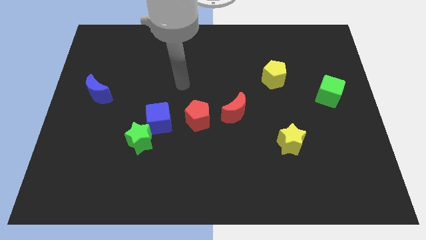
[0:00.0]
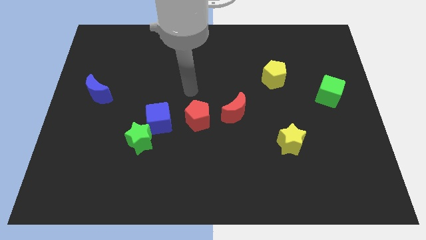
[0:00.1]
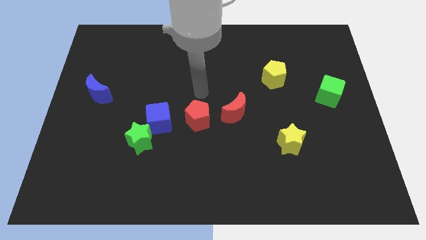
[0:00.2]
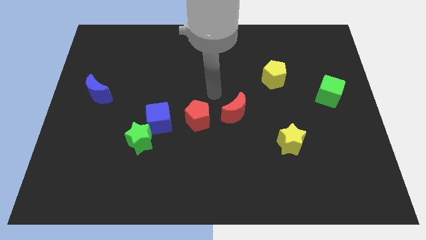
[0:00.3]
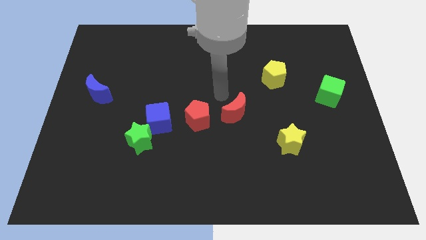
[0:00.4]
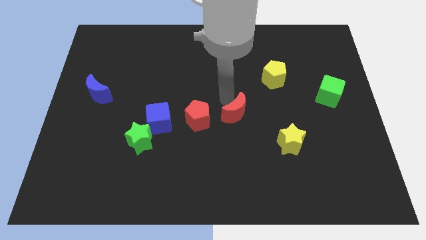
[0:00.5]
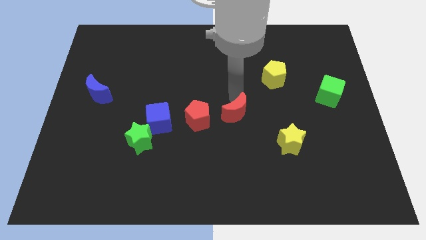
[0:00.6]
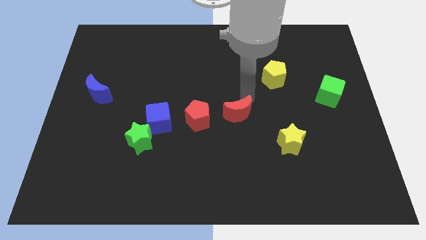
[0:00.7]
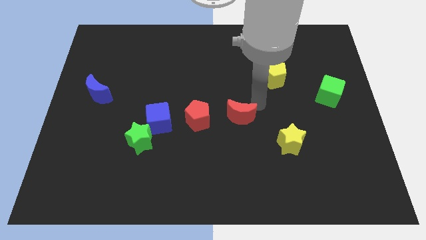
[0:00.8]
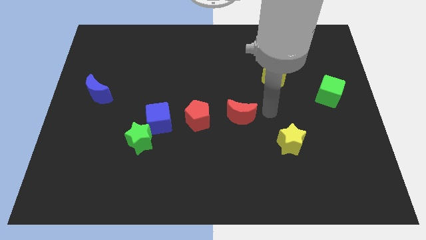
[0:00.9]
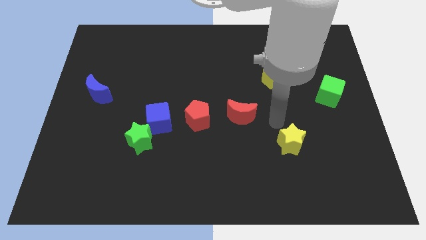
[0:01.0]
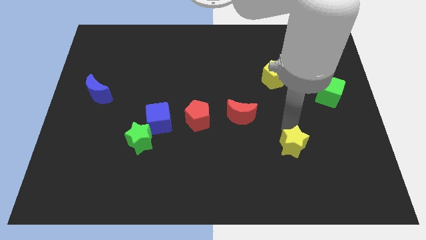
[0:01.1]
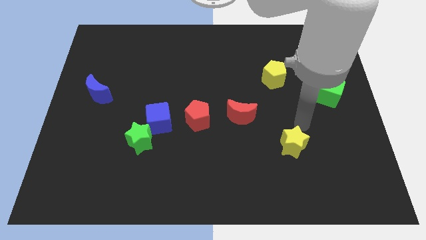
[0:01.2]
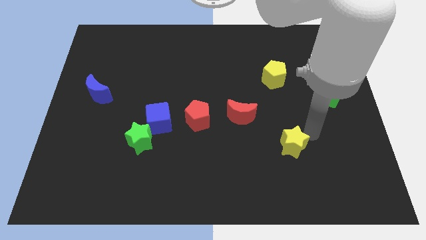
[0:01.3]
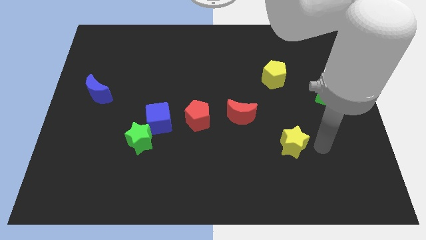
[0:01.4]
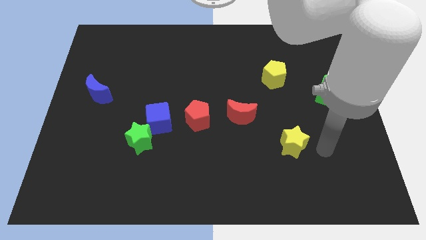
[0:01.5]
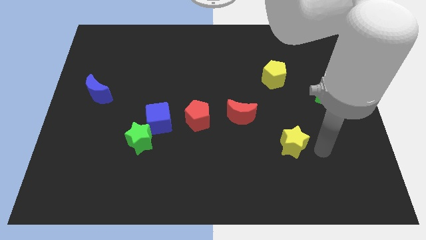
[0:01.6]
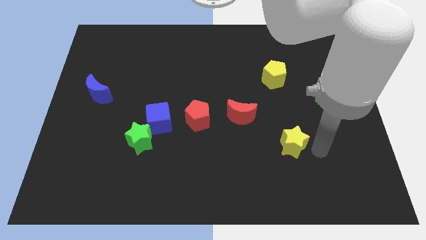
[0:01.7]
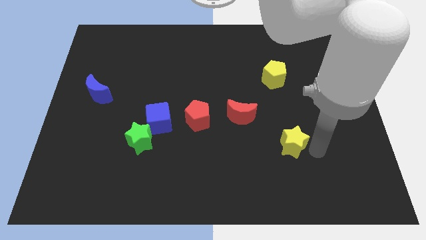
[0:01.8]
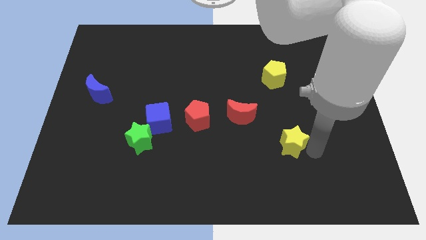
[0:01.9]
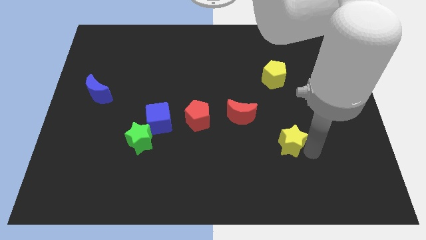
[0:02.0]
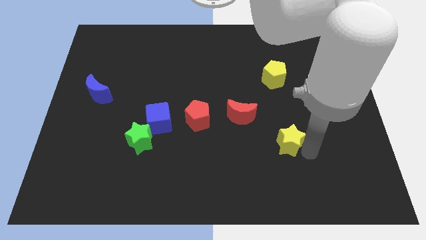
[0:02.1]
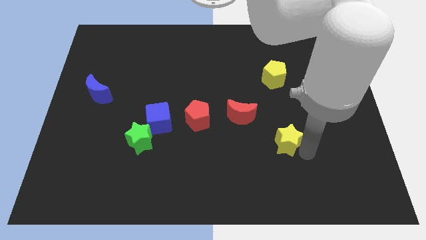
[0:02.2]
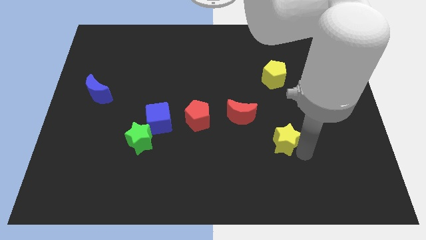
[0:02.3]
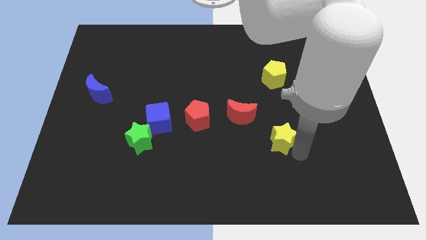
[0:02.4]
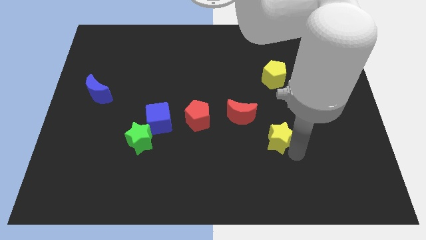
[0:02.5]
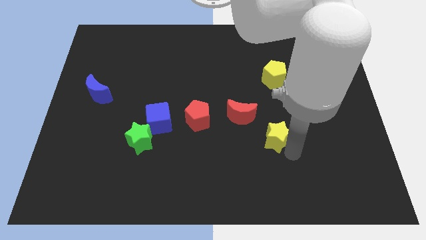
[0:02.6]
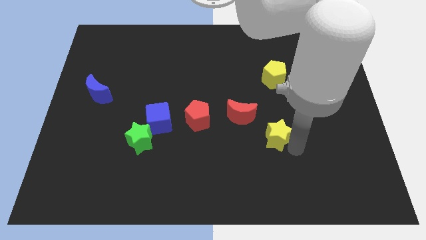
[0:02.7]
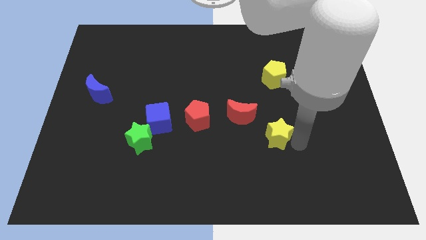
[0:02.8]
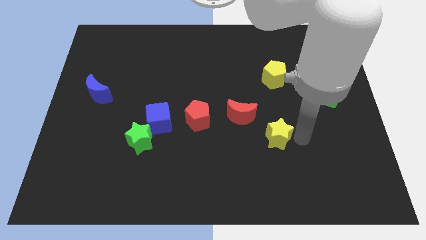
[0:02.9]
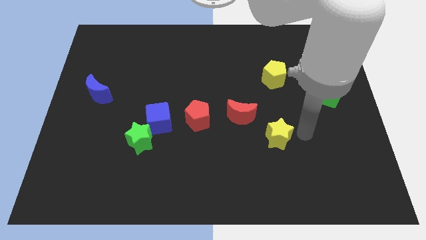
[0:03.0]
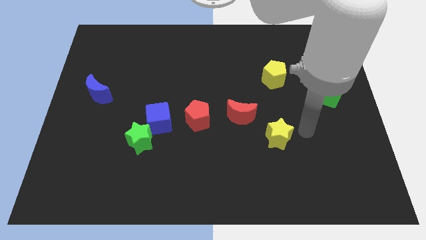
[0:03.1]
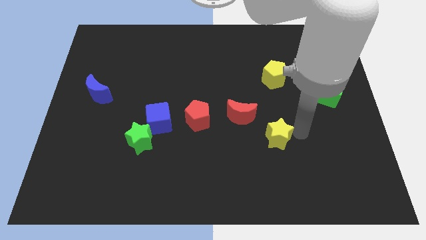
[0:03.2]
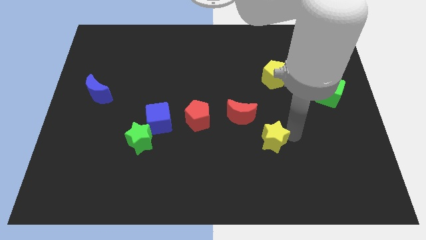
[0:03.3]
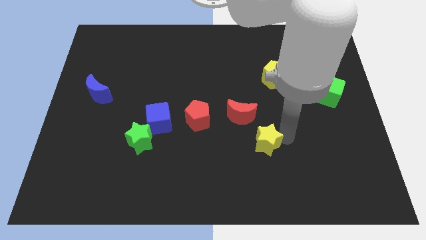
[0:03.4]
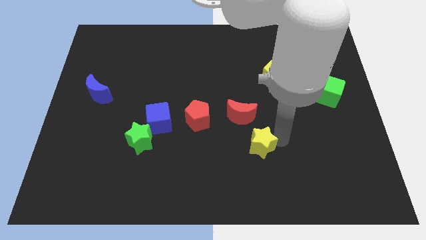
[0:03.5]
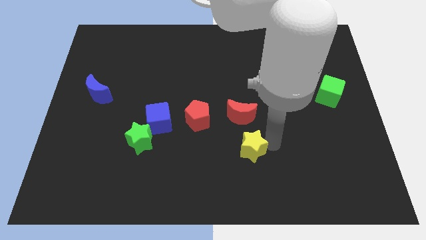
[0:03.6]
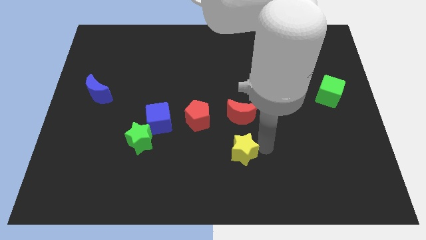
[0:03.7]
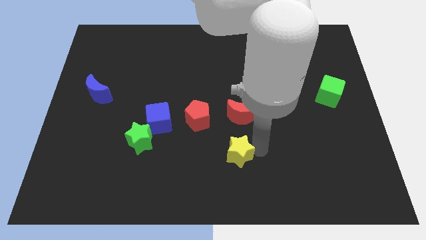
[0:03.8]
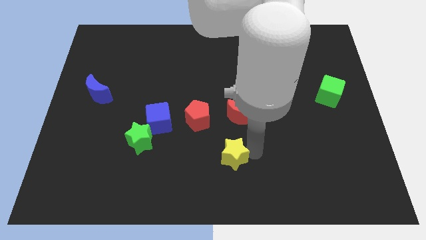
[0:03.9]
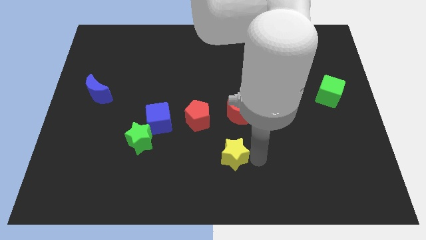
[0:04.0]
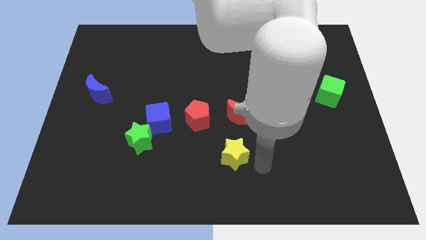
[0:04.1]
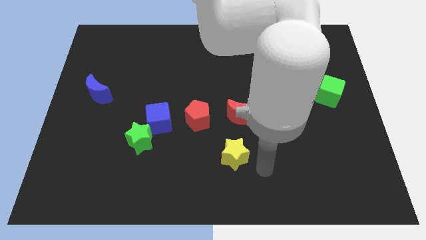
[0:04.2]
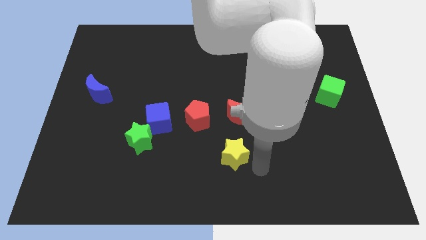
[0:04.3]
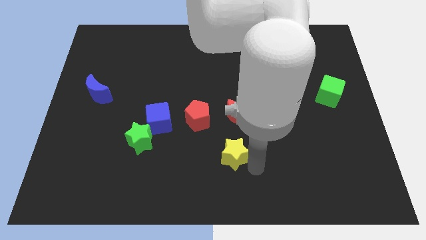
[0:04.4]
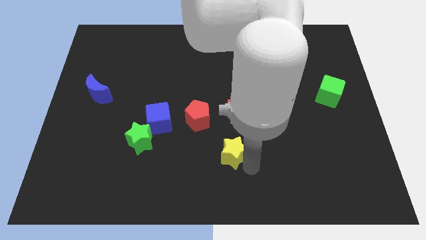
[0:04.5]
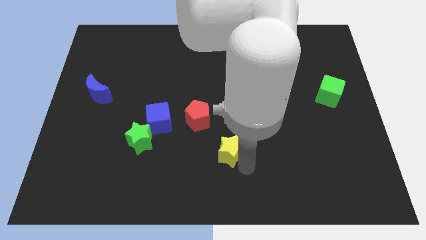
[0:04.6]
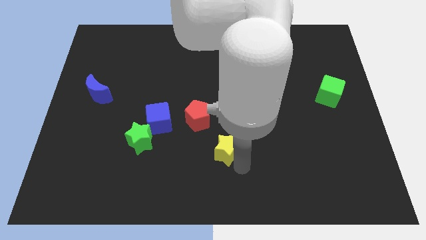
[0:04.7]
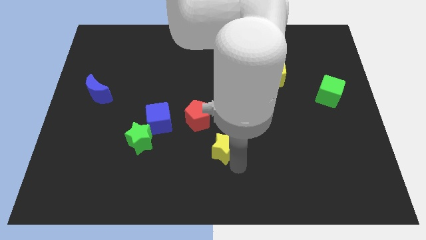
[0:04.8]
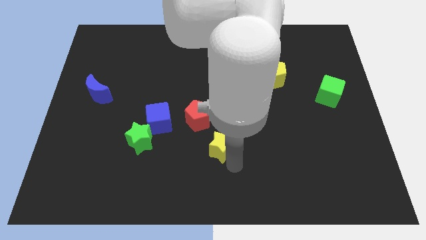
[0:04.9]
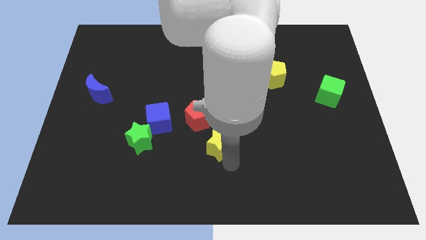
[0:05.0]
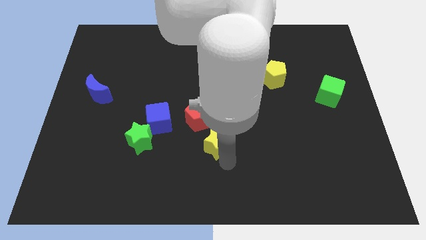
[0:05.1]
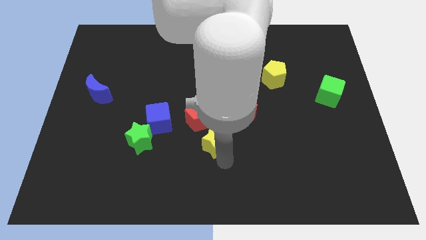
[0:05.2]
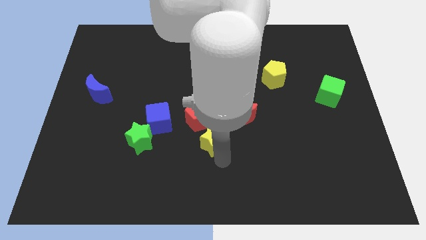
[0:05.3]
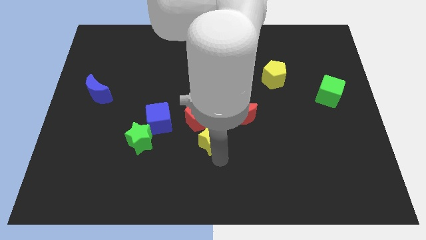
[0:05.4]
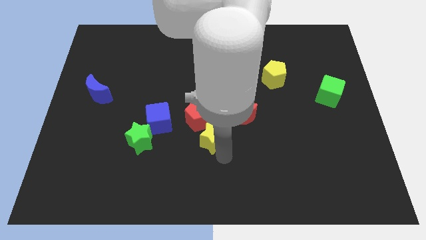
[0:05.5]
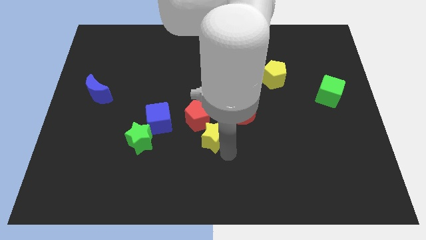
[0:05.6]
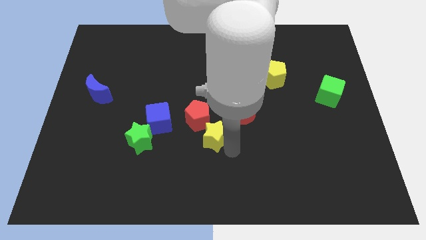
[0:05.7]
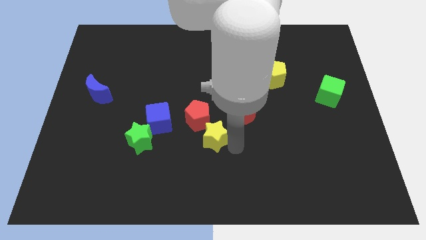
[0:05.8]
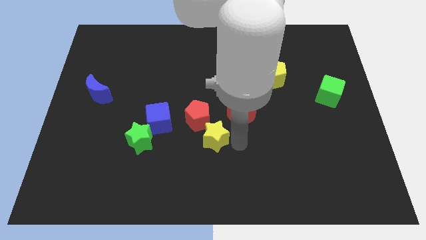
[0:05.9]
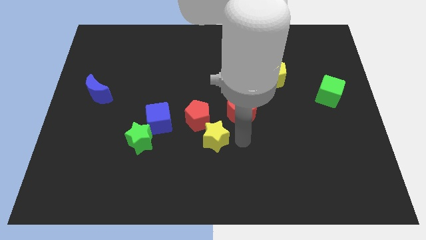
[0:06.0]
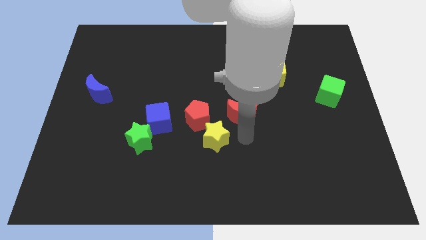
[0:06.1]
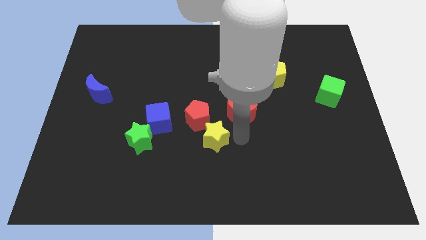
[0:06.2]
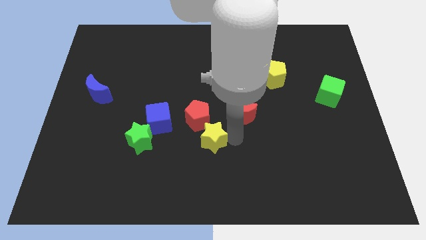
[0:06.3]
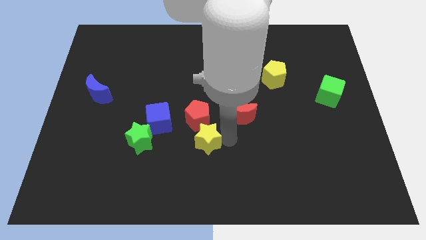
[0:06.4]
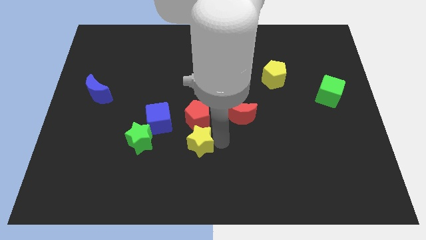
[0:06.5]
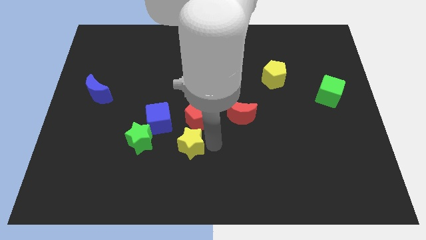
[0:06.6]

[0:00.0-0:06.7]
move the yellow star diagonally down and to the left of the red pentagon
